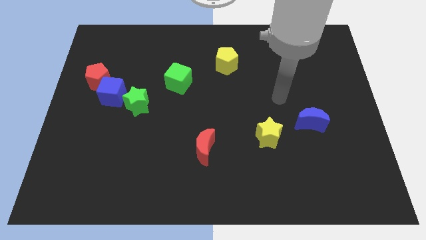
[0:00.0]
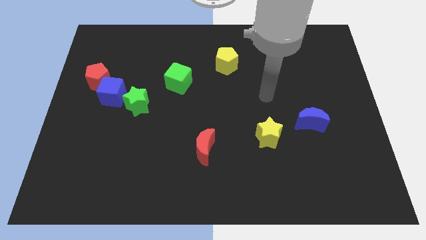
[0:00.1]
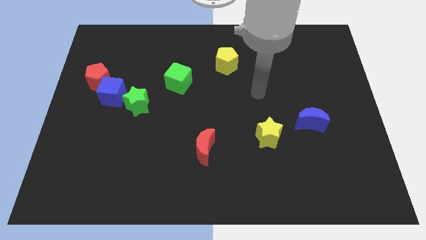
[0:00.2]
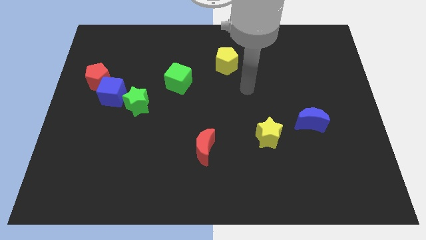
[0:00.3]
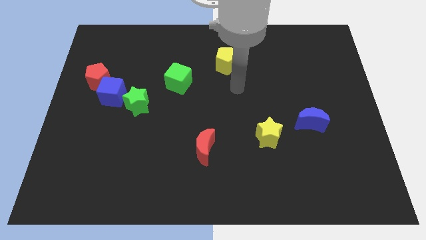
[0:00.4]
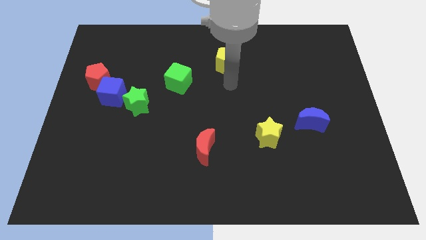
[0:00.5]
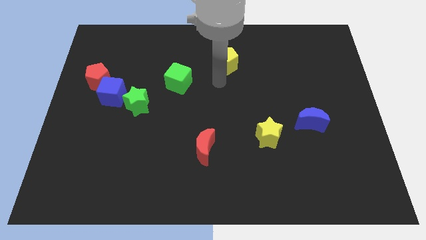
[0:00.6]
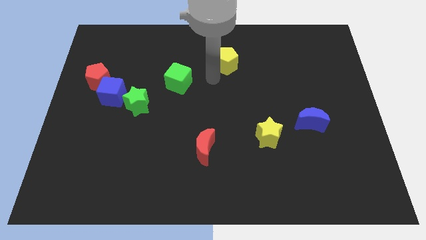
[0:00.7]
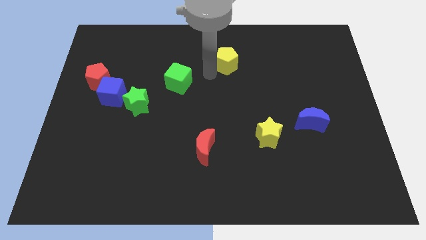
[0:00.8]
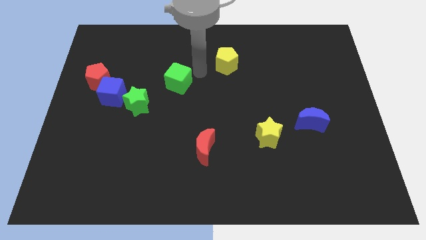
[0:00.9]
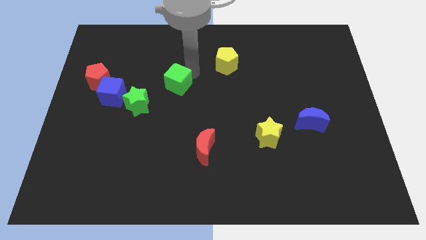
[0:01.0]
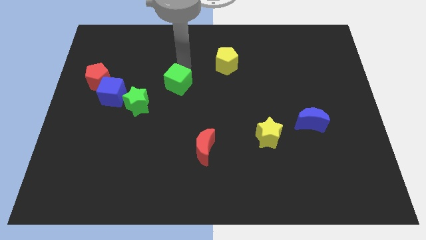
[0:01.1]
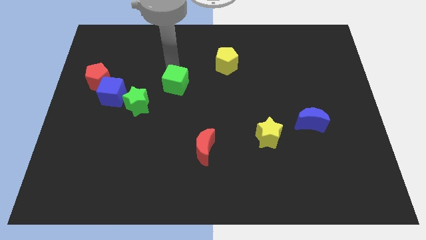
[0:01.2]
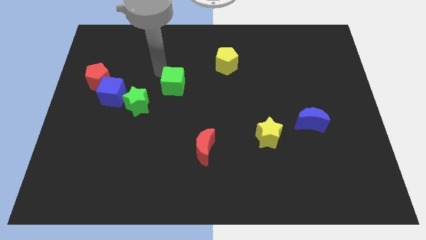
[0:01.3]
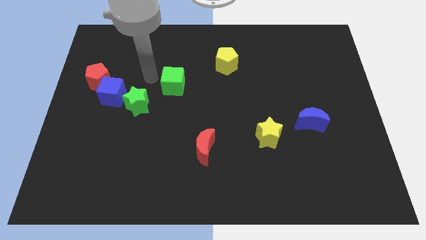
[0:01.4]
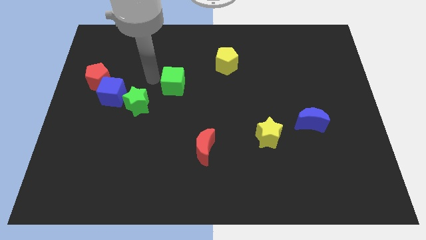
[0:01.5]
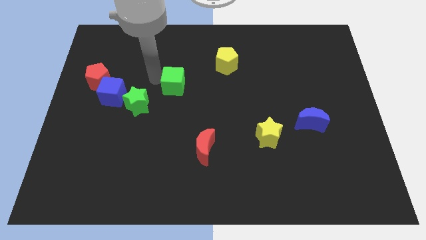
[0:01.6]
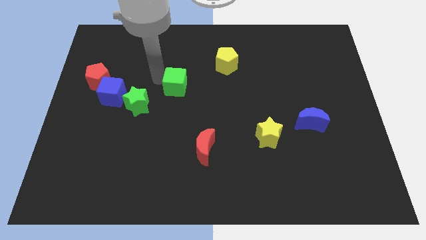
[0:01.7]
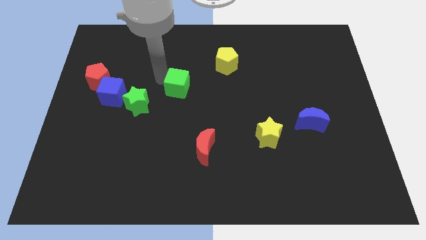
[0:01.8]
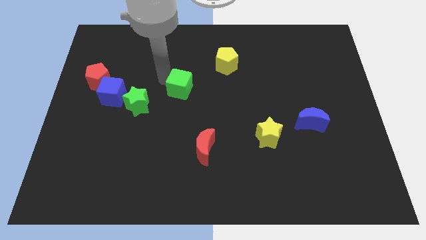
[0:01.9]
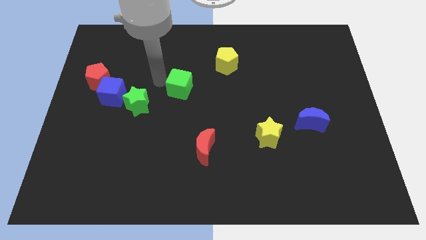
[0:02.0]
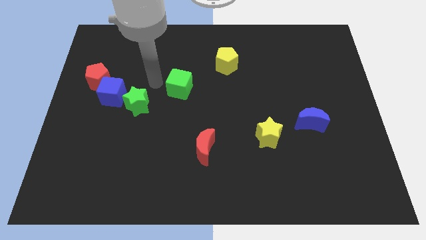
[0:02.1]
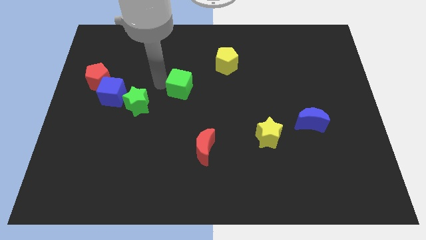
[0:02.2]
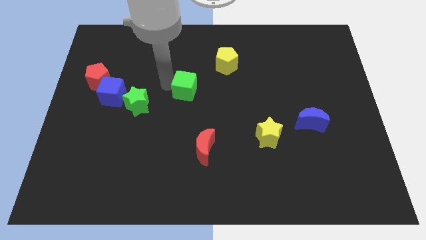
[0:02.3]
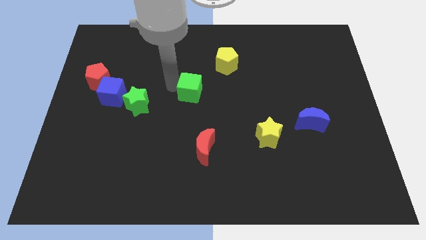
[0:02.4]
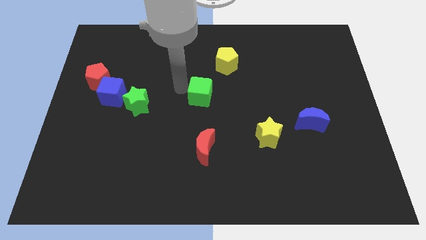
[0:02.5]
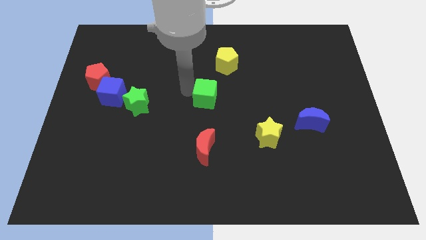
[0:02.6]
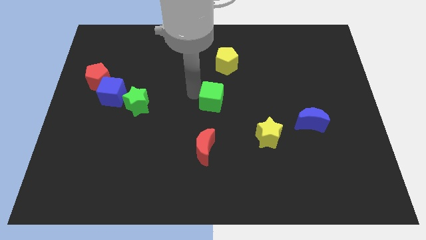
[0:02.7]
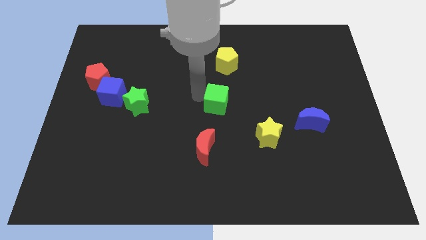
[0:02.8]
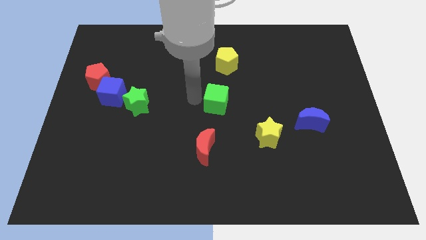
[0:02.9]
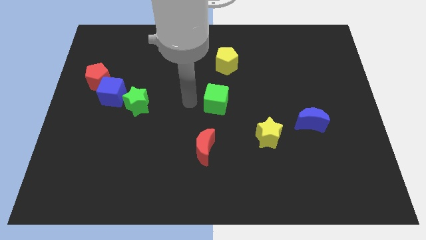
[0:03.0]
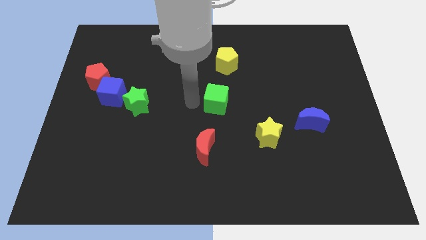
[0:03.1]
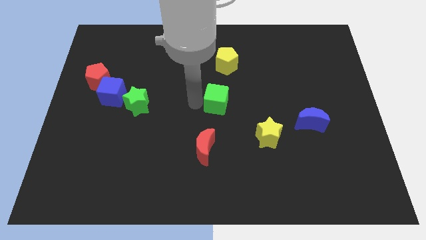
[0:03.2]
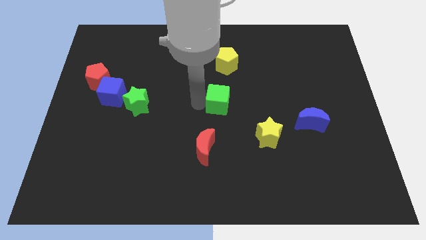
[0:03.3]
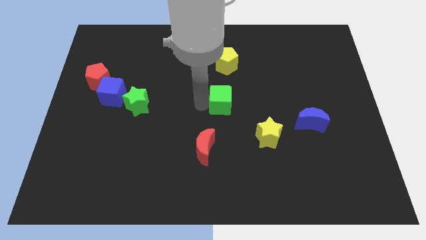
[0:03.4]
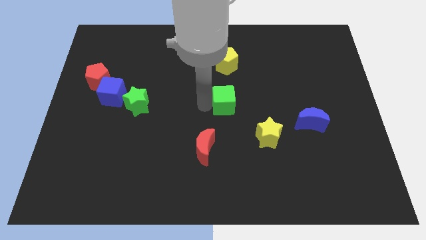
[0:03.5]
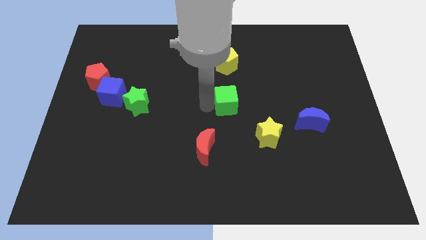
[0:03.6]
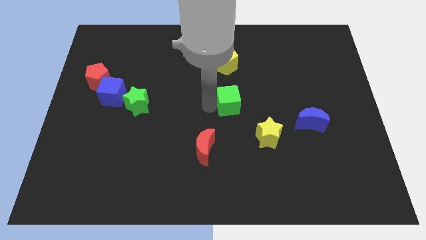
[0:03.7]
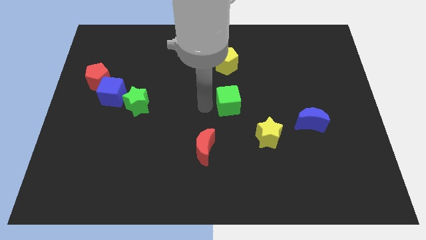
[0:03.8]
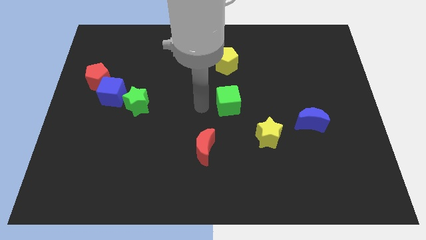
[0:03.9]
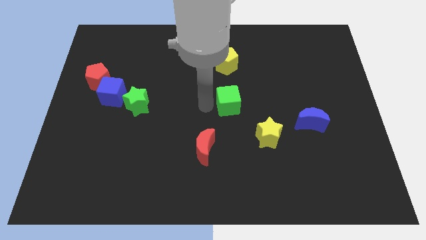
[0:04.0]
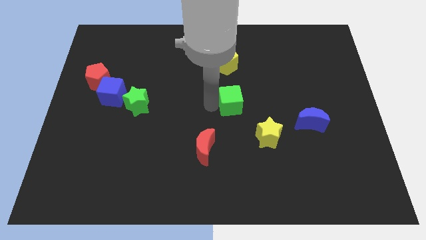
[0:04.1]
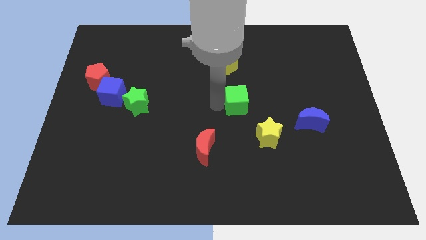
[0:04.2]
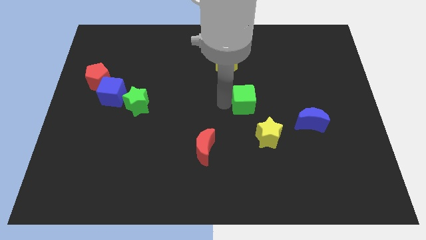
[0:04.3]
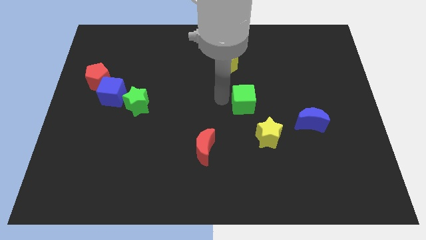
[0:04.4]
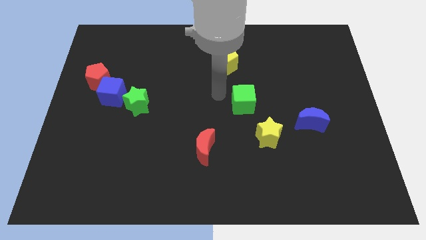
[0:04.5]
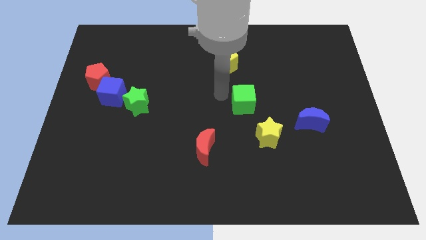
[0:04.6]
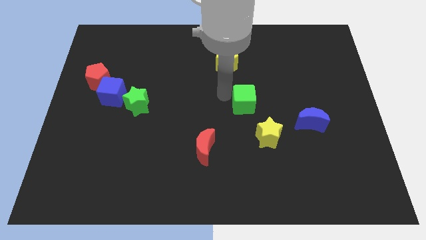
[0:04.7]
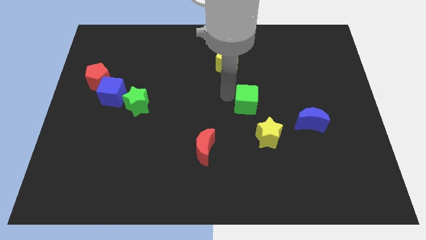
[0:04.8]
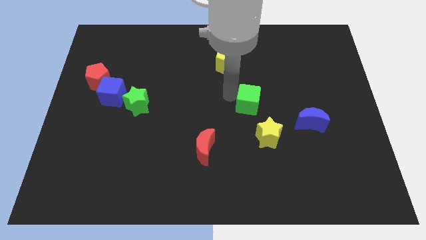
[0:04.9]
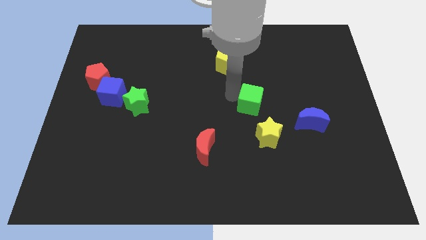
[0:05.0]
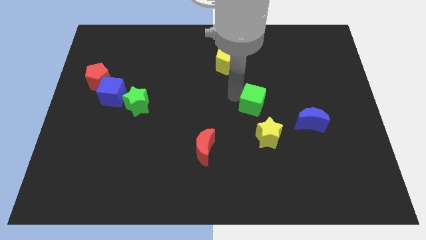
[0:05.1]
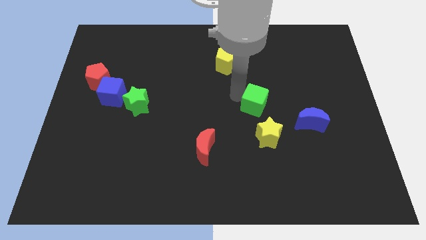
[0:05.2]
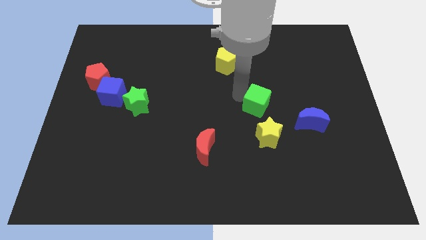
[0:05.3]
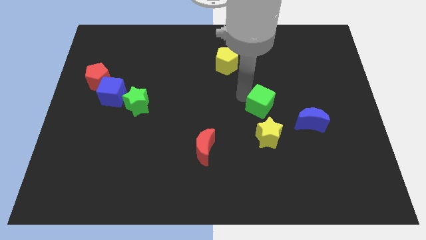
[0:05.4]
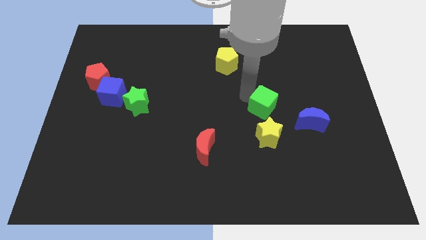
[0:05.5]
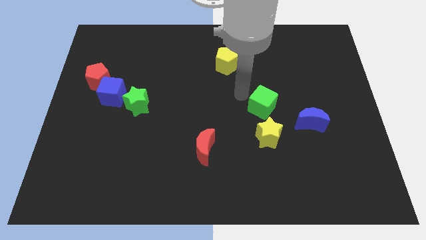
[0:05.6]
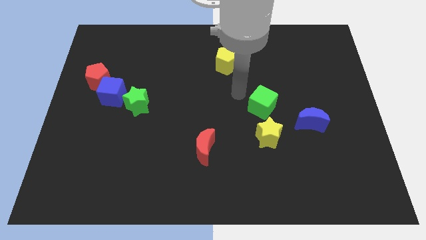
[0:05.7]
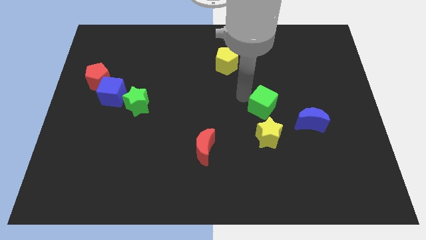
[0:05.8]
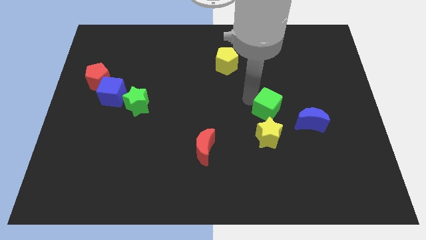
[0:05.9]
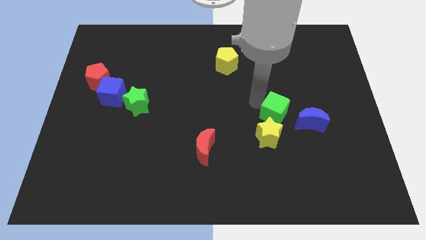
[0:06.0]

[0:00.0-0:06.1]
move the green cube to the top right of the yellow star

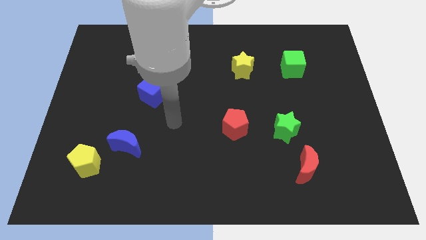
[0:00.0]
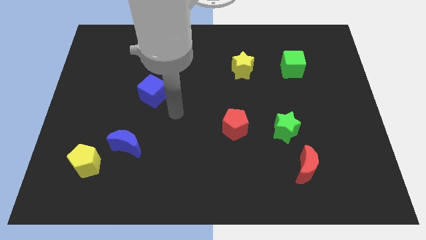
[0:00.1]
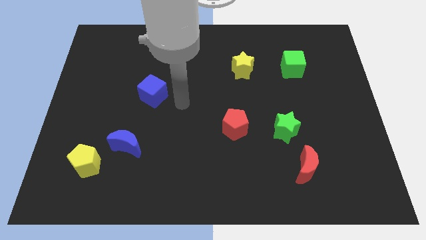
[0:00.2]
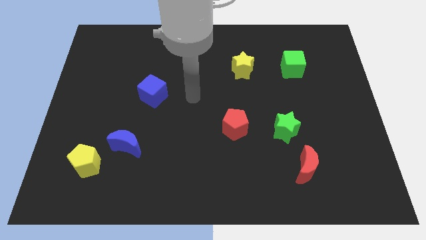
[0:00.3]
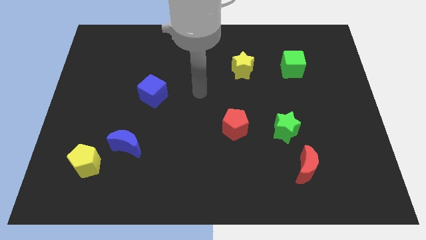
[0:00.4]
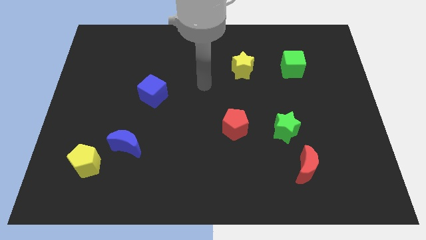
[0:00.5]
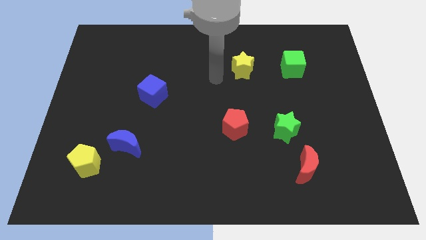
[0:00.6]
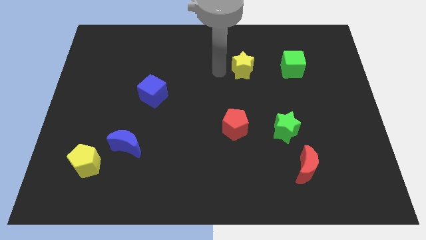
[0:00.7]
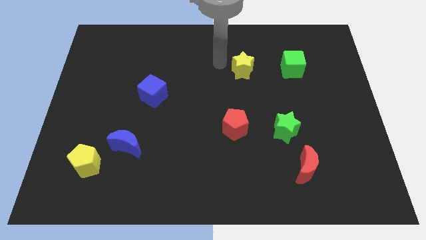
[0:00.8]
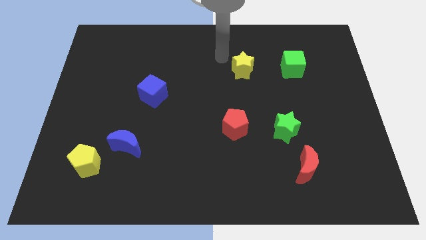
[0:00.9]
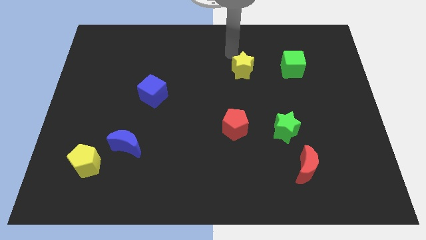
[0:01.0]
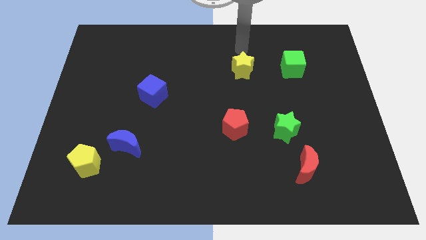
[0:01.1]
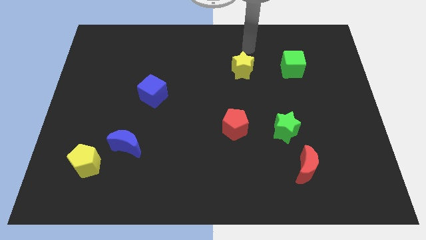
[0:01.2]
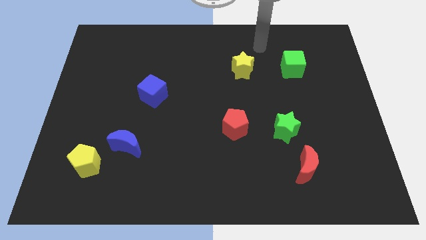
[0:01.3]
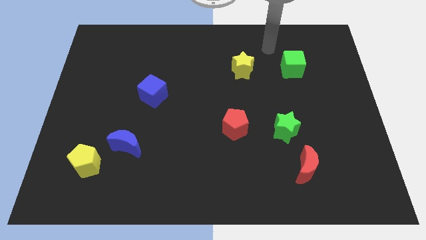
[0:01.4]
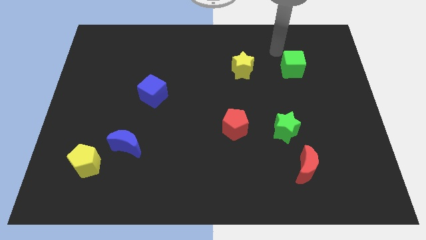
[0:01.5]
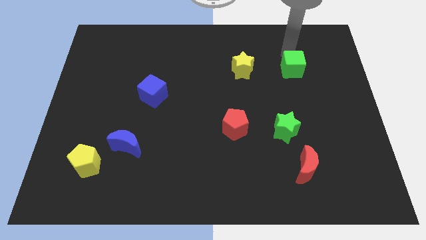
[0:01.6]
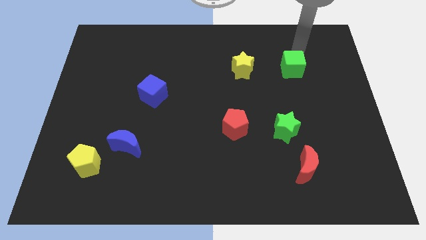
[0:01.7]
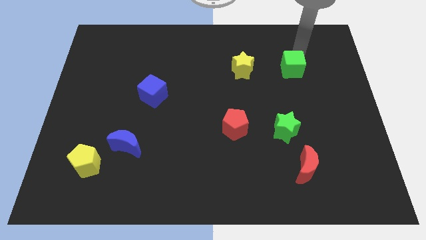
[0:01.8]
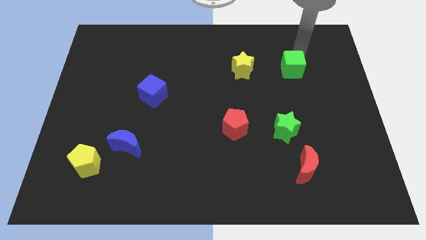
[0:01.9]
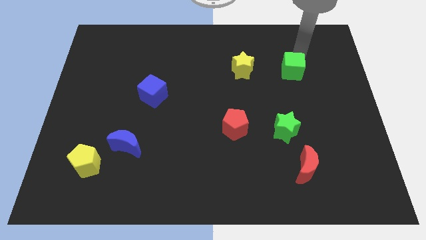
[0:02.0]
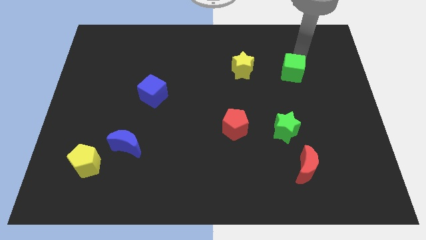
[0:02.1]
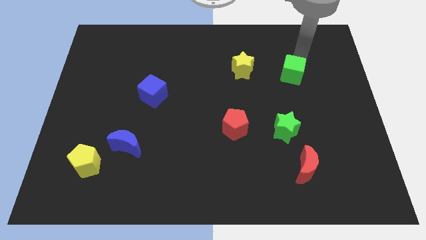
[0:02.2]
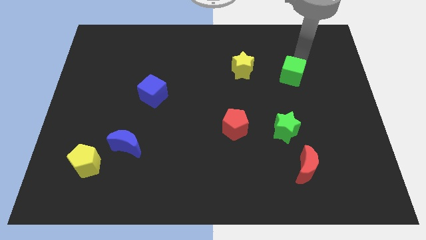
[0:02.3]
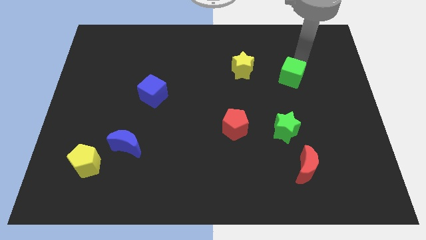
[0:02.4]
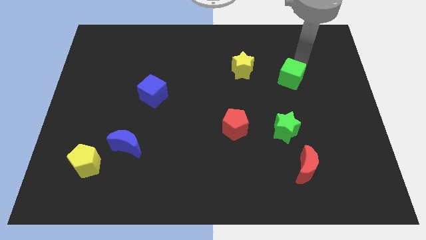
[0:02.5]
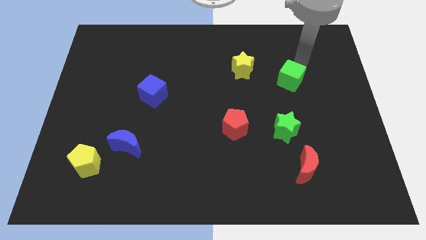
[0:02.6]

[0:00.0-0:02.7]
move the green cube to the top of the green star
